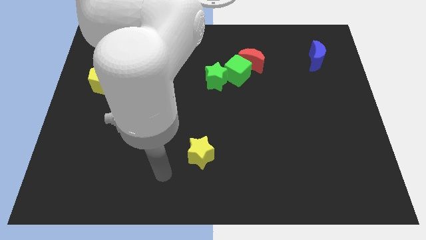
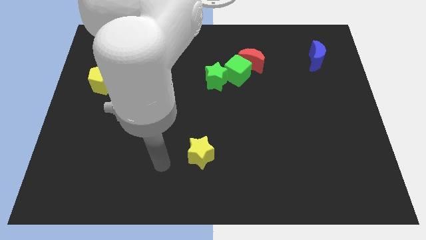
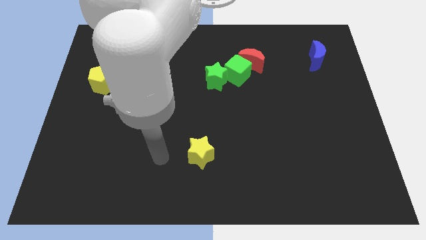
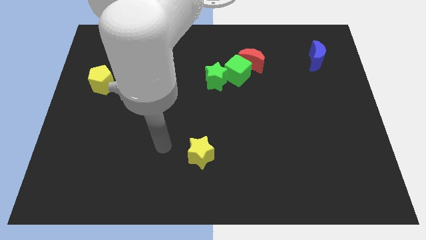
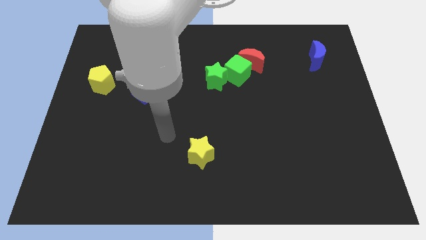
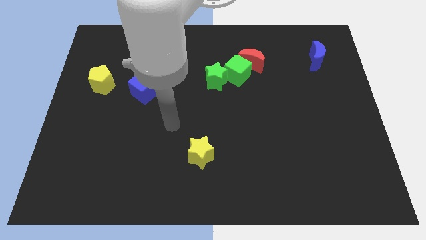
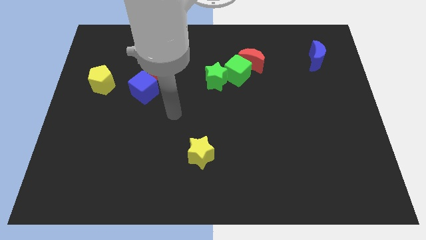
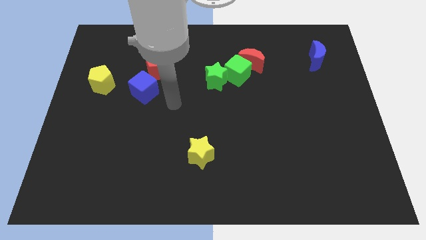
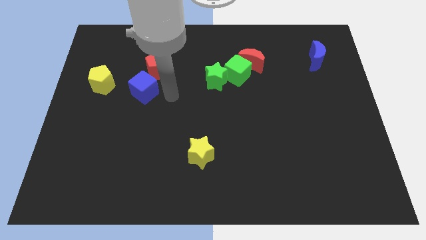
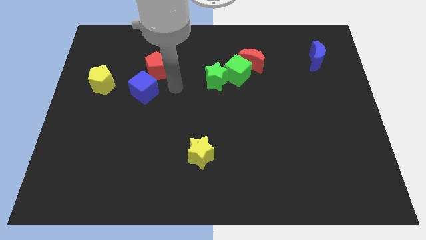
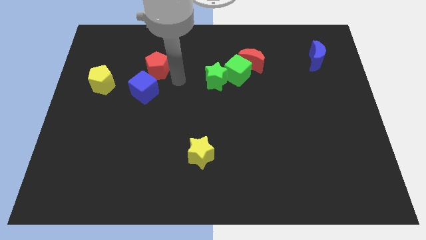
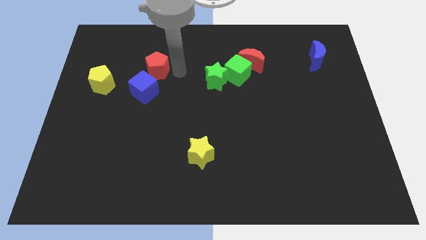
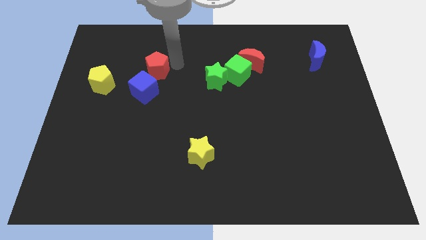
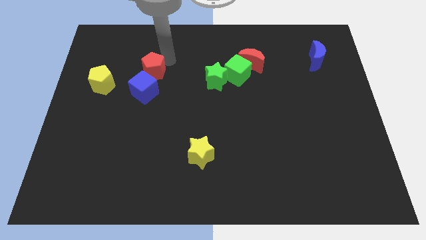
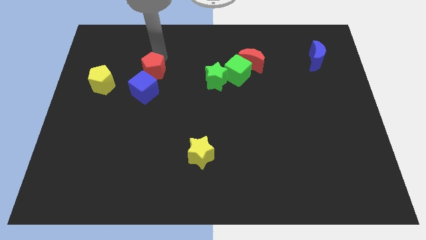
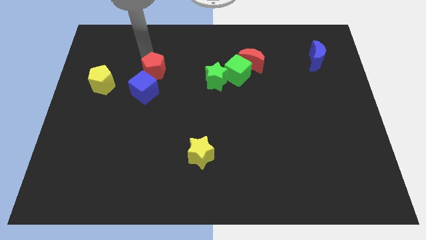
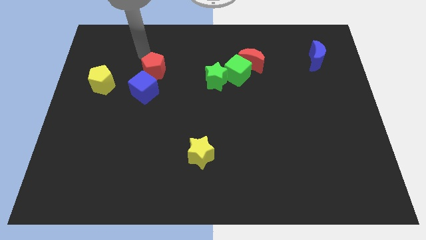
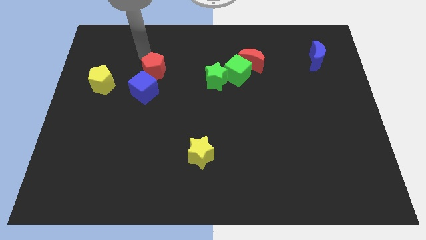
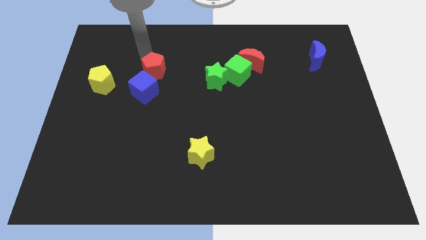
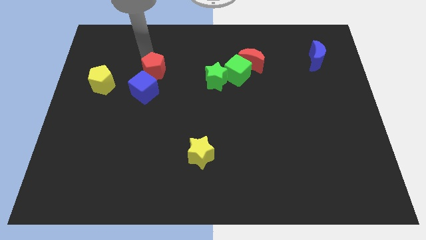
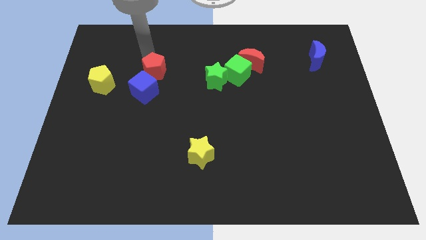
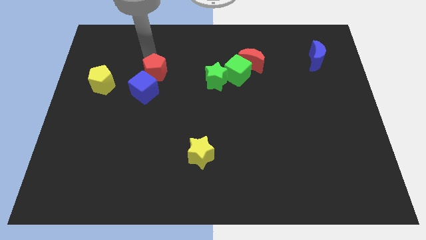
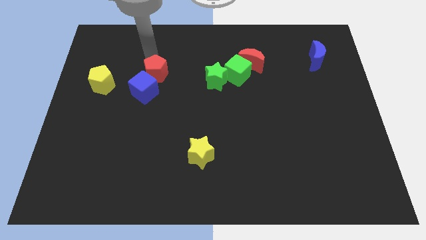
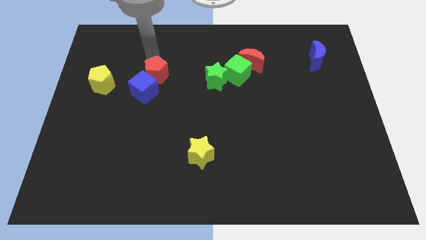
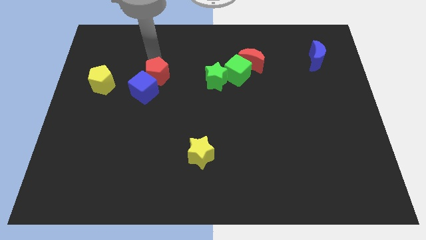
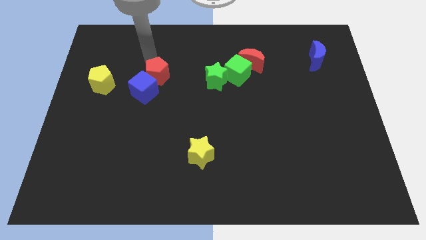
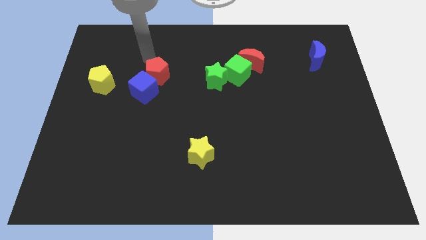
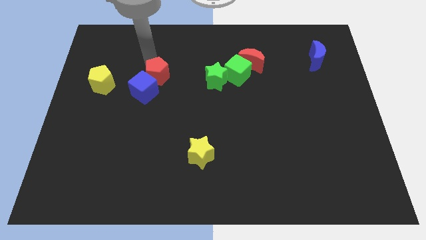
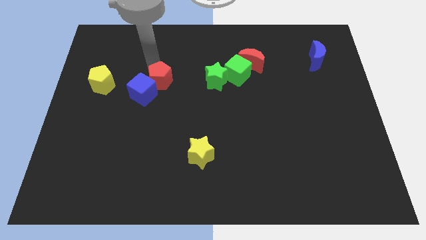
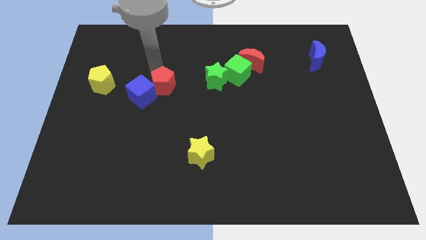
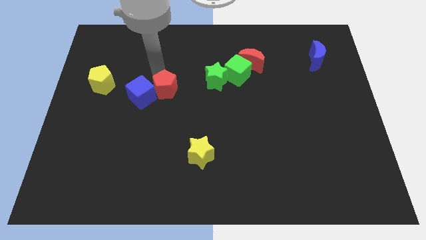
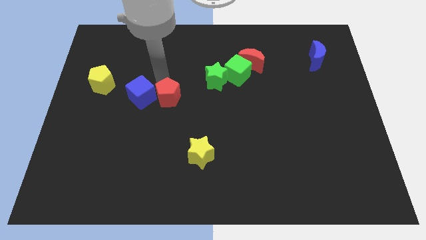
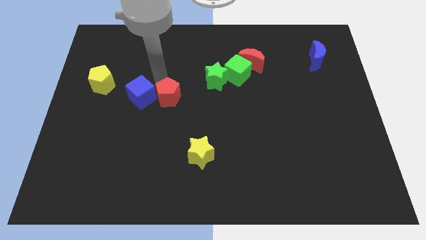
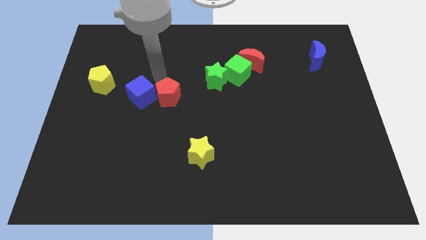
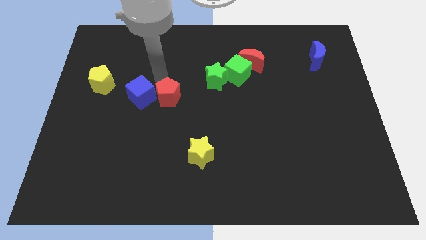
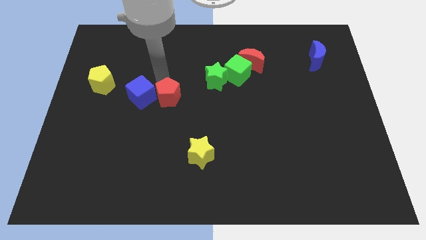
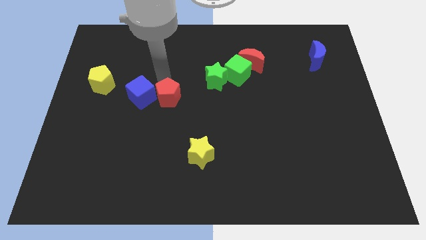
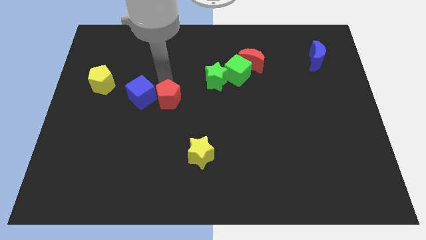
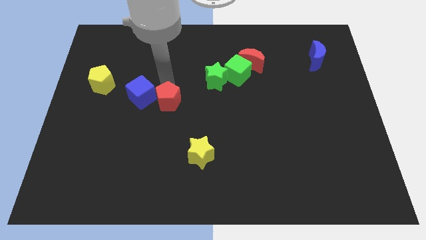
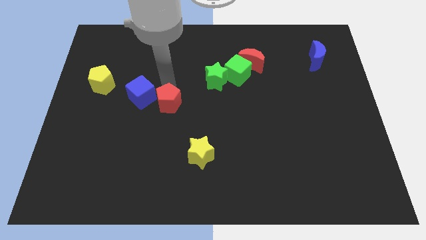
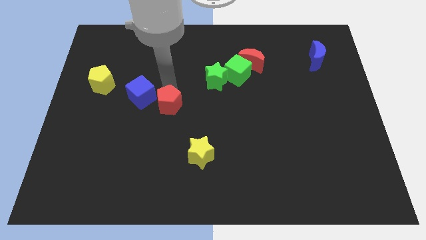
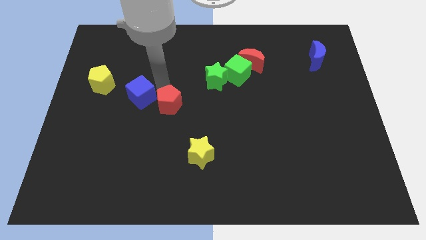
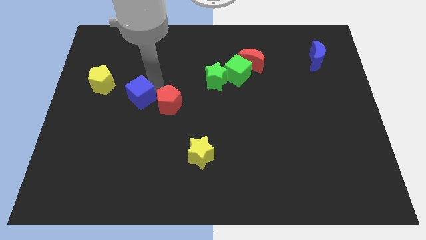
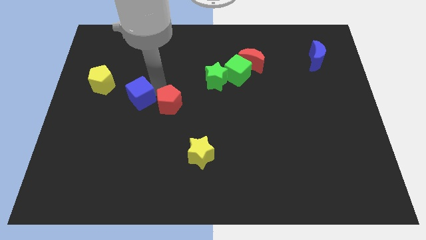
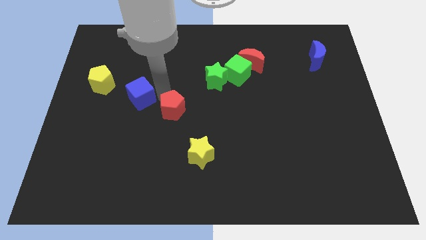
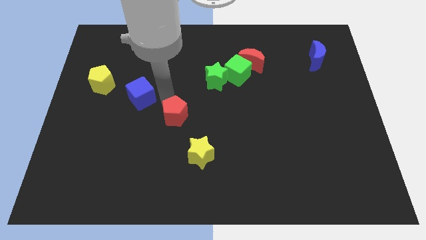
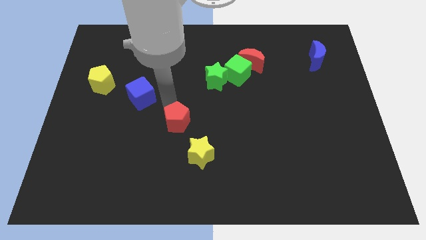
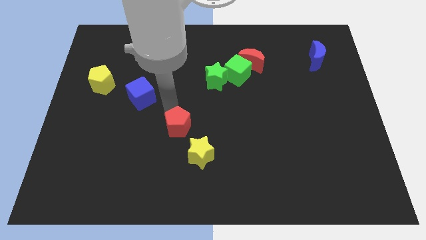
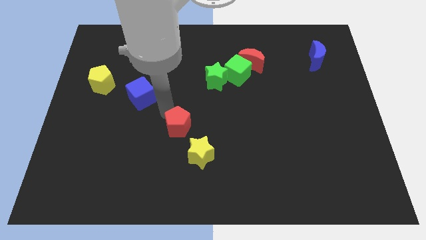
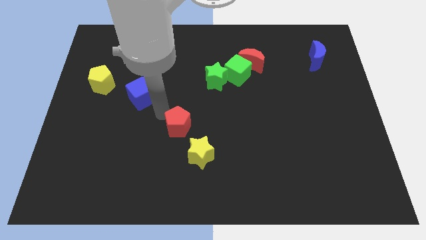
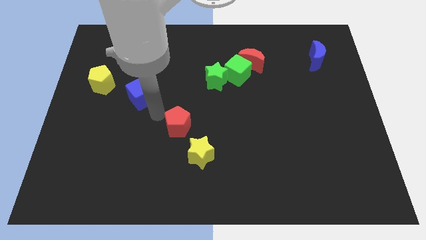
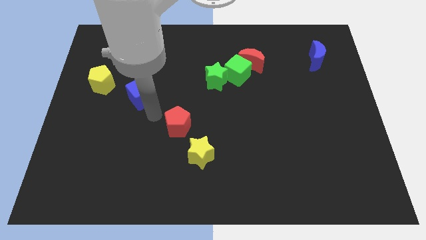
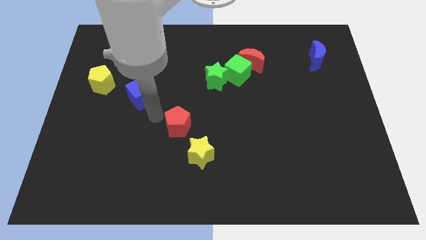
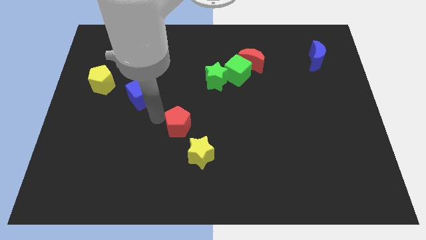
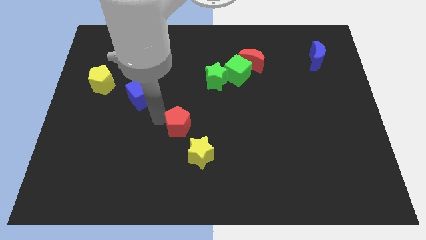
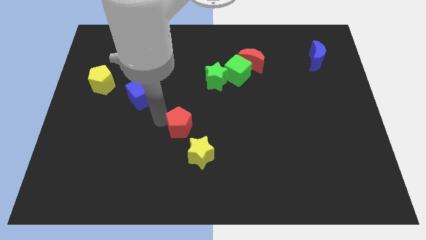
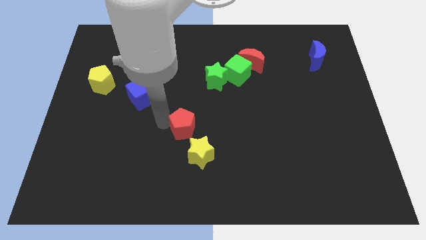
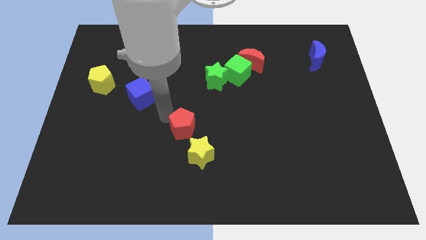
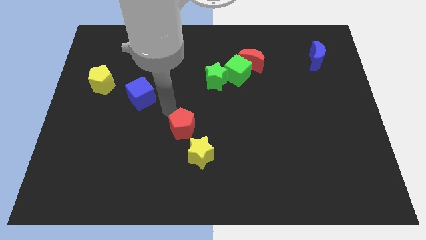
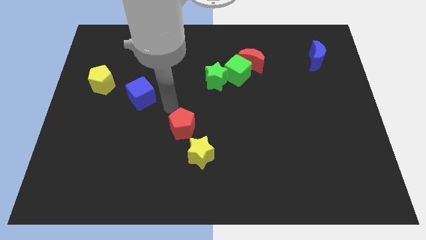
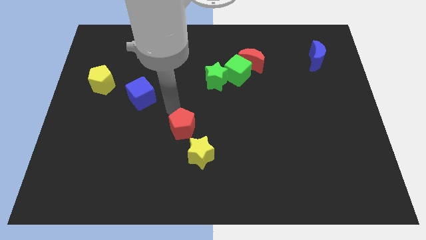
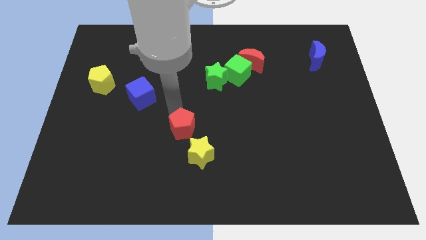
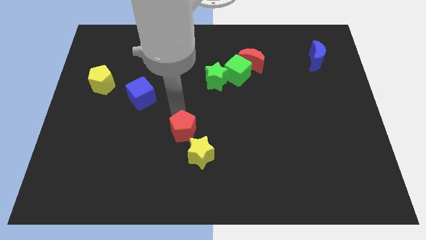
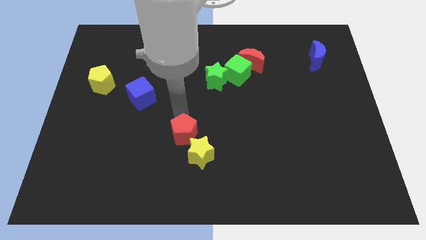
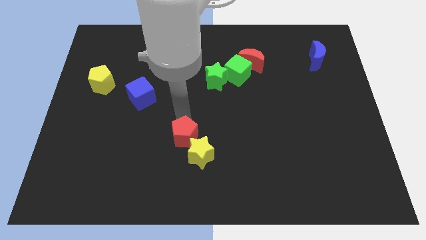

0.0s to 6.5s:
put the red pentagon next to the yellow star

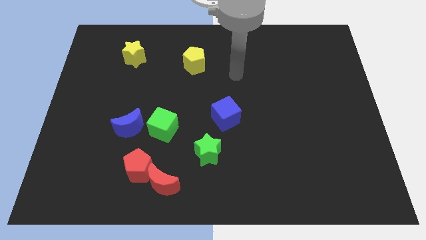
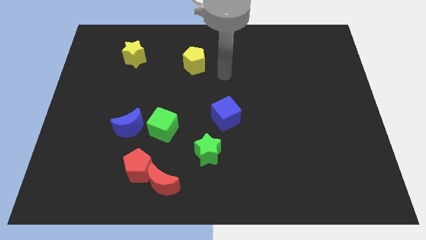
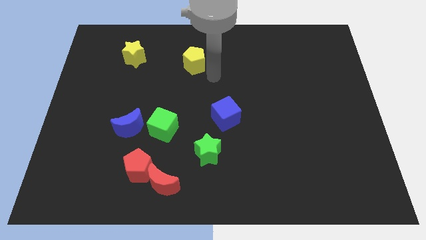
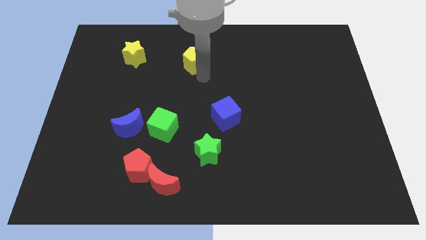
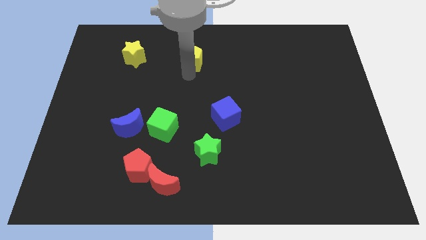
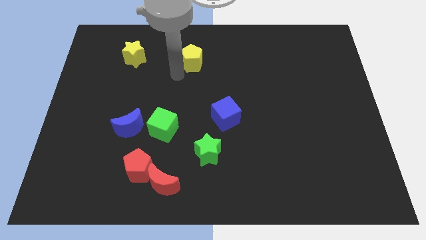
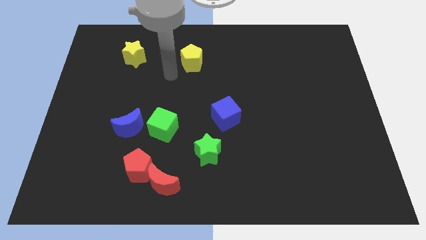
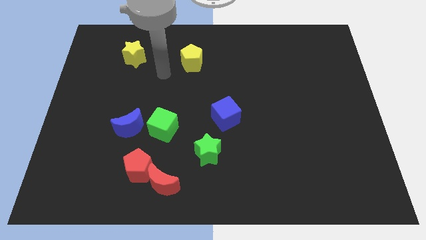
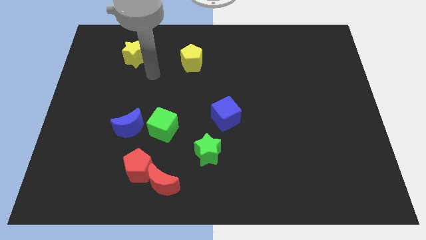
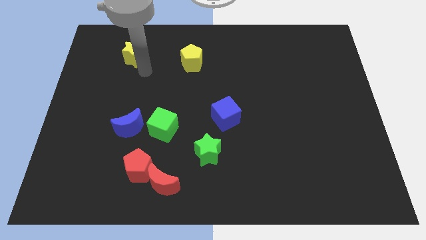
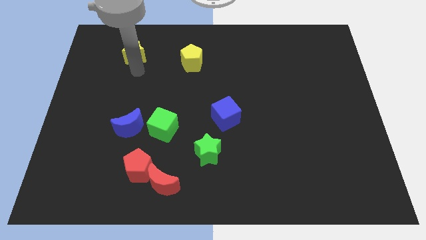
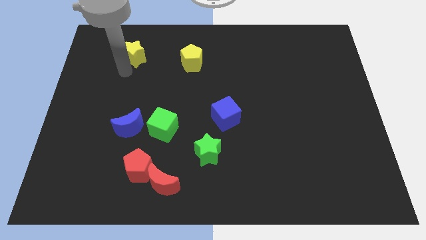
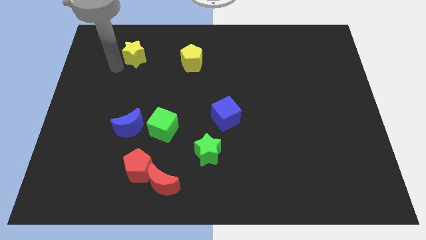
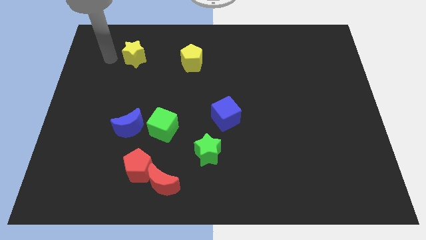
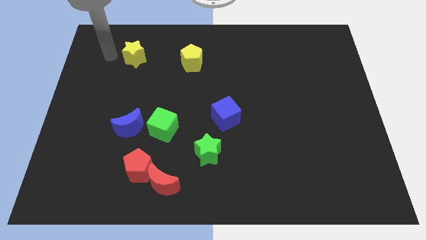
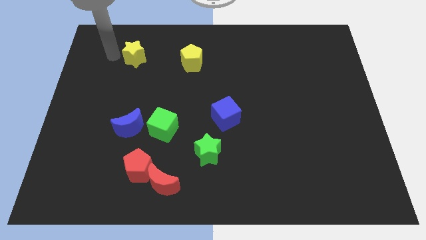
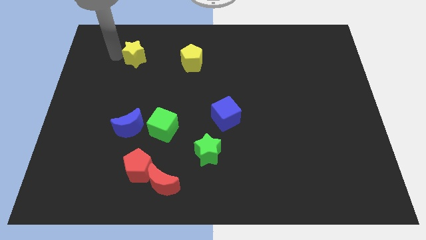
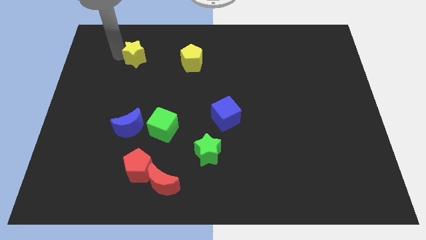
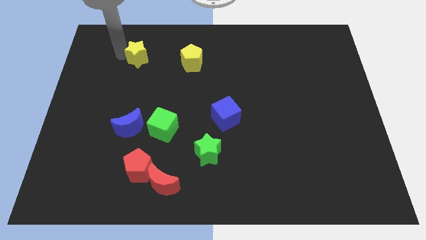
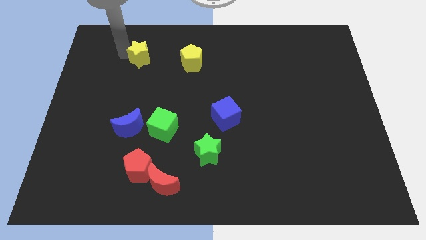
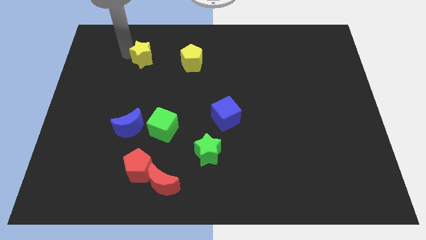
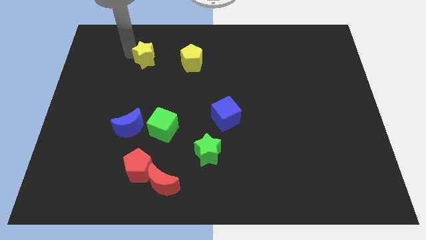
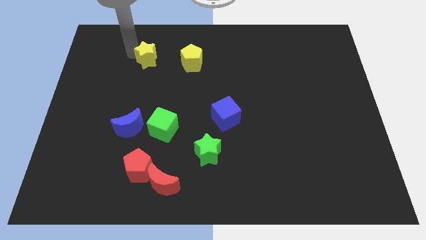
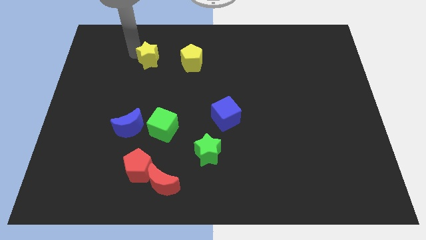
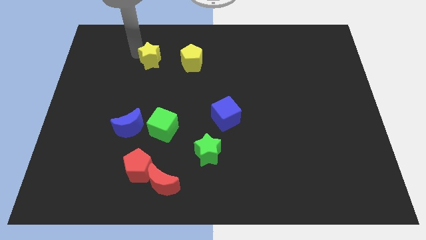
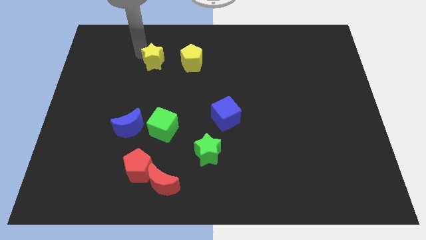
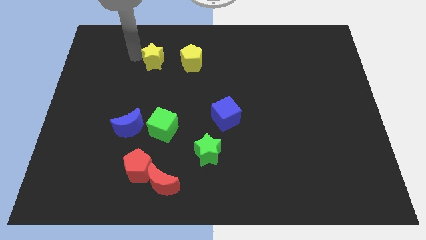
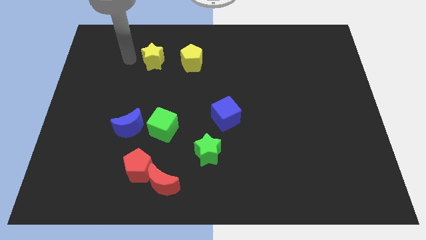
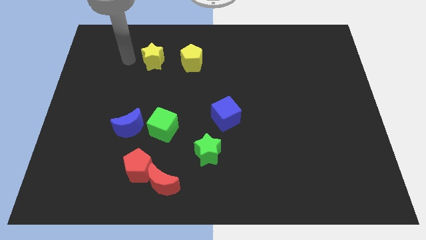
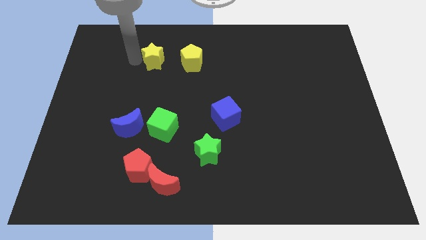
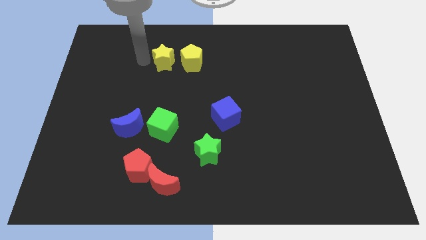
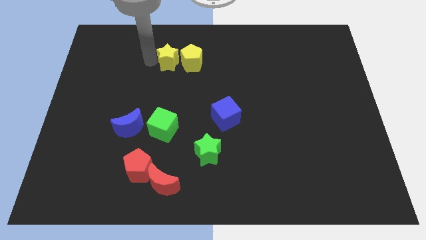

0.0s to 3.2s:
put the yellow star towards the yellow pentagon
